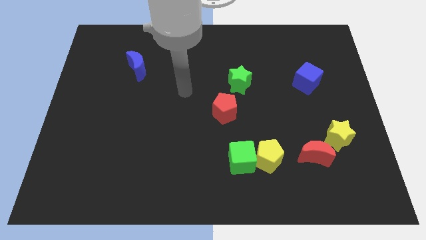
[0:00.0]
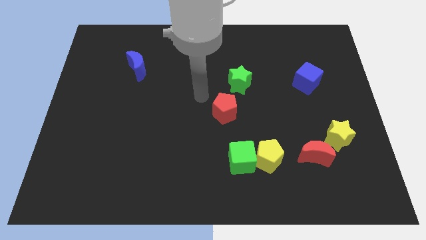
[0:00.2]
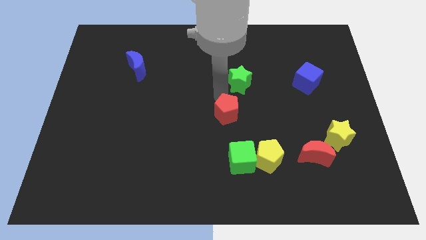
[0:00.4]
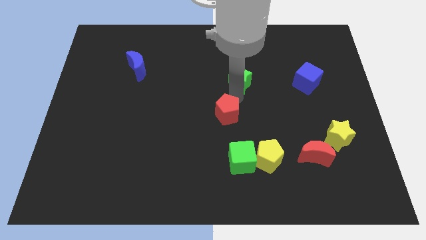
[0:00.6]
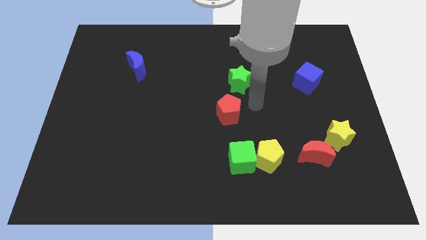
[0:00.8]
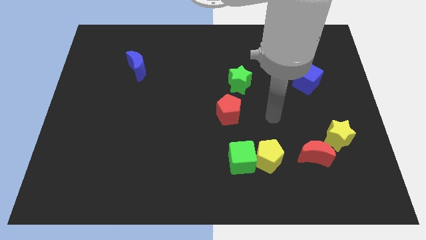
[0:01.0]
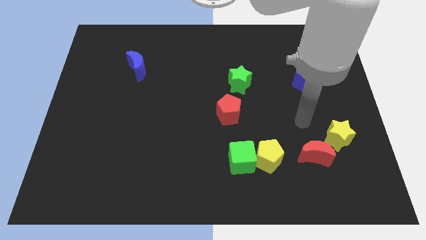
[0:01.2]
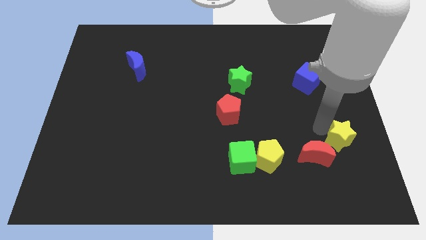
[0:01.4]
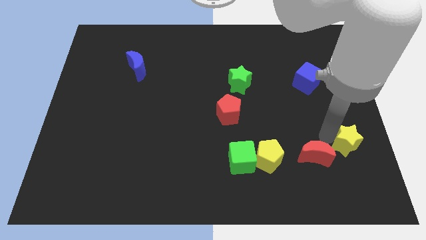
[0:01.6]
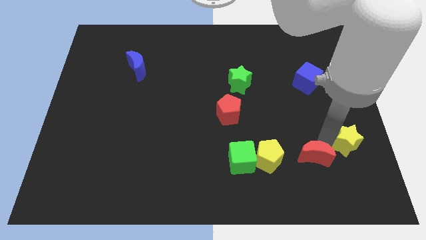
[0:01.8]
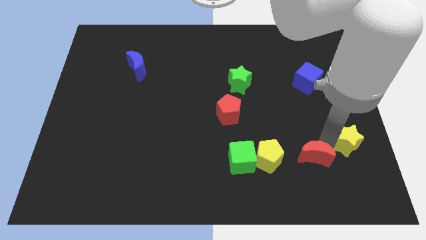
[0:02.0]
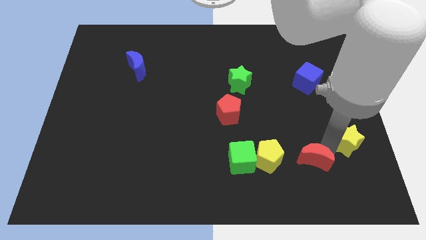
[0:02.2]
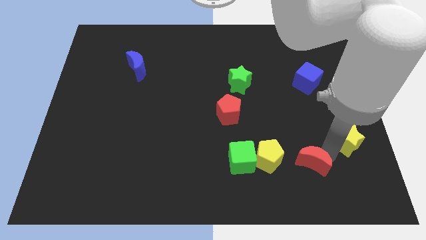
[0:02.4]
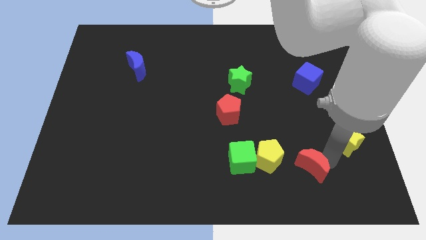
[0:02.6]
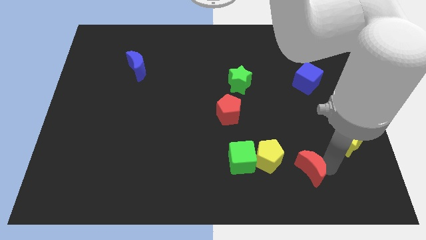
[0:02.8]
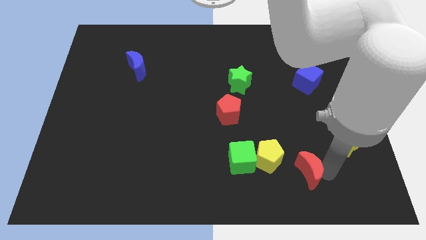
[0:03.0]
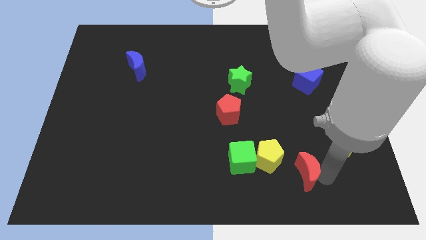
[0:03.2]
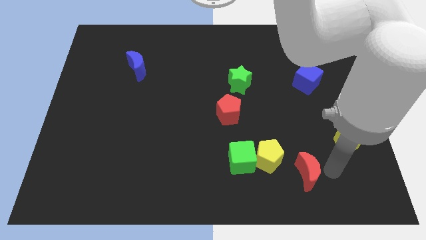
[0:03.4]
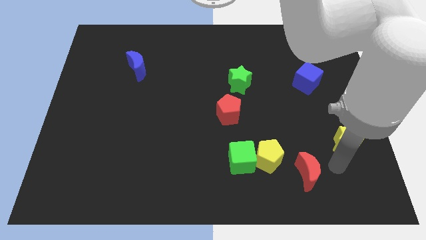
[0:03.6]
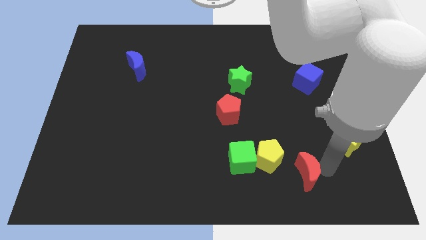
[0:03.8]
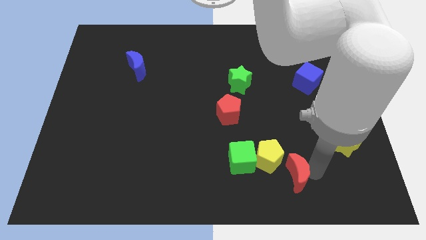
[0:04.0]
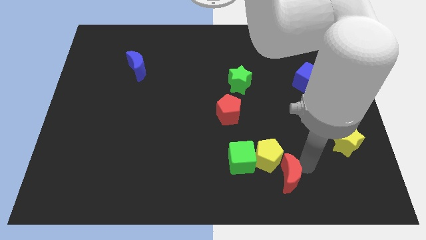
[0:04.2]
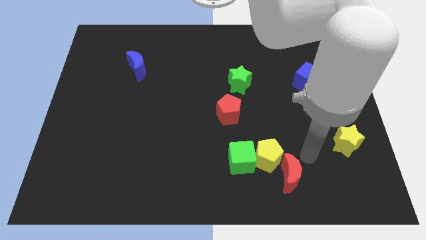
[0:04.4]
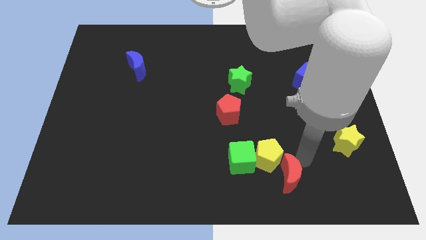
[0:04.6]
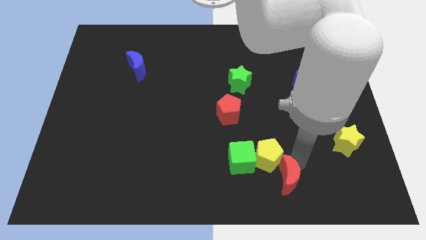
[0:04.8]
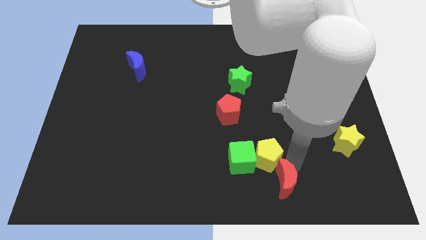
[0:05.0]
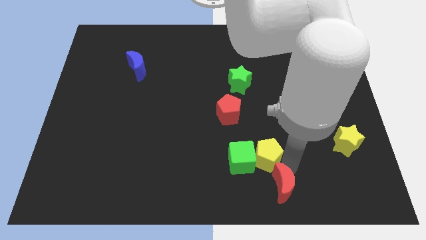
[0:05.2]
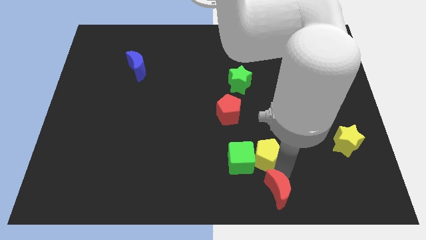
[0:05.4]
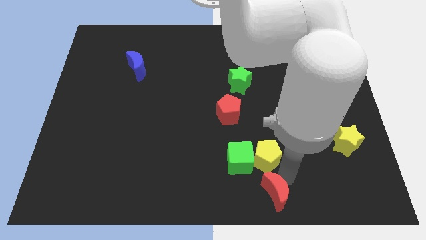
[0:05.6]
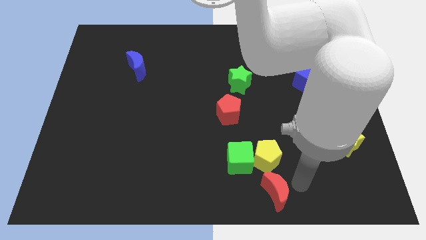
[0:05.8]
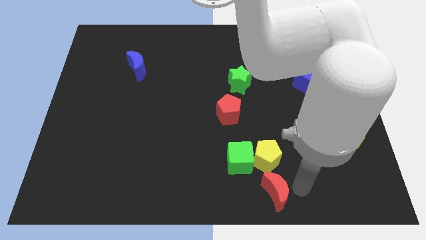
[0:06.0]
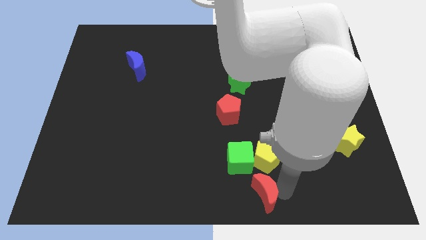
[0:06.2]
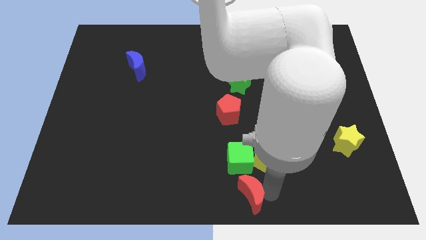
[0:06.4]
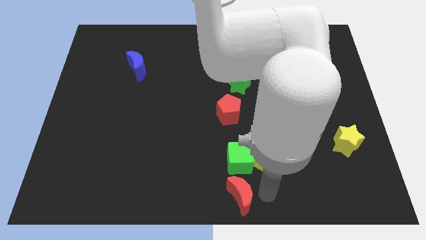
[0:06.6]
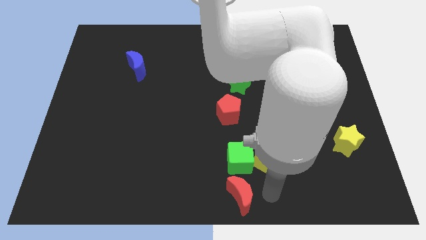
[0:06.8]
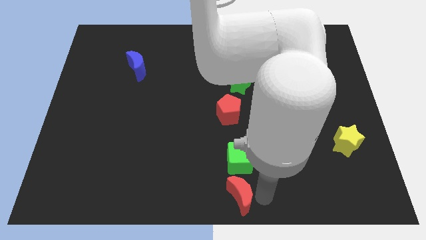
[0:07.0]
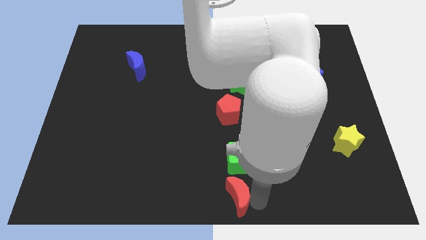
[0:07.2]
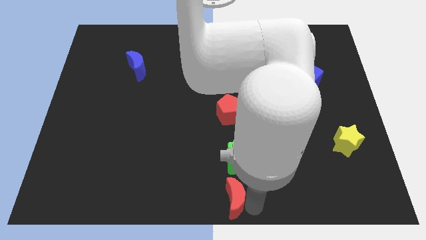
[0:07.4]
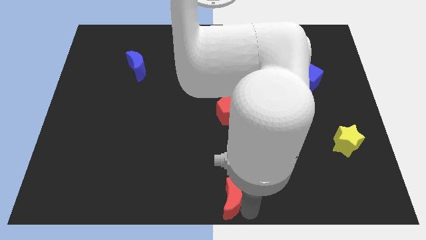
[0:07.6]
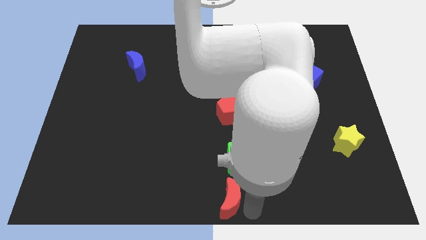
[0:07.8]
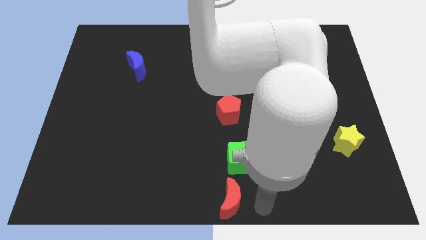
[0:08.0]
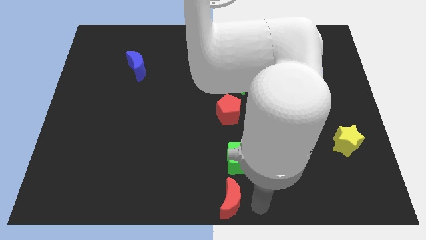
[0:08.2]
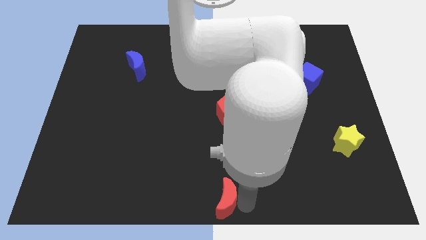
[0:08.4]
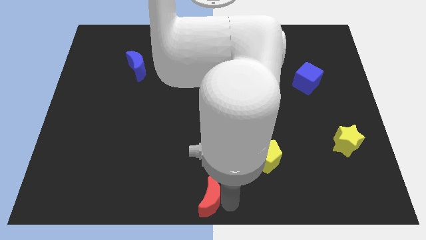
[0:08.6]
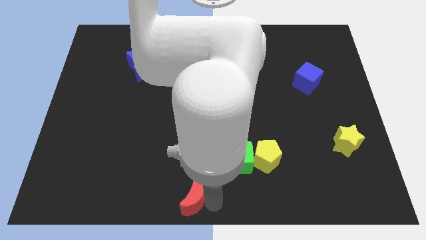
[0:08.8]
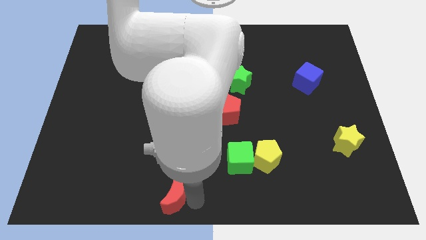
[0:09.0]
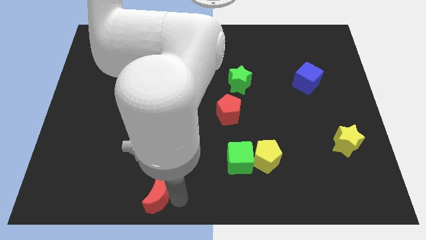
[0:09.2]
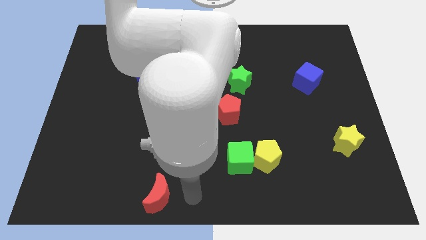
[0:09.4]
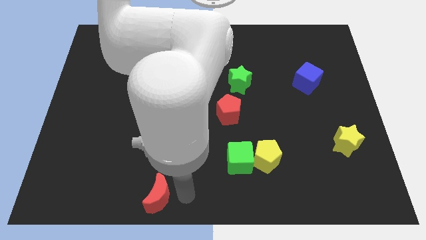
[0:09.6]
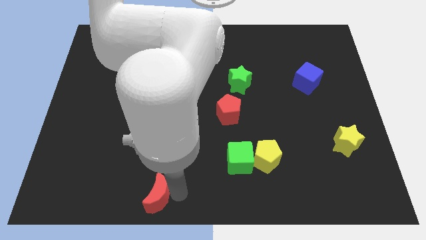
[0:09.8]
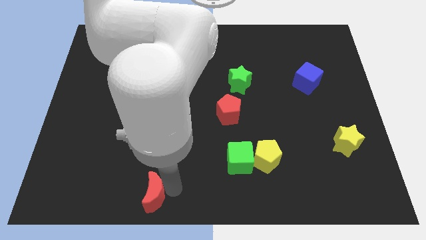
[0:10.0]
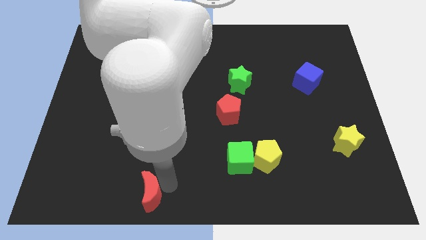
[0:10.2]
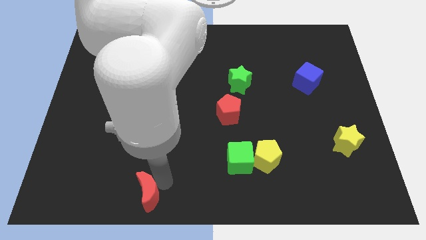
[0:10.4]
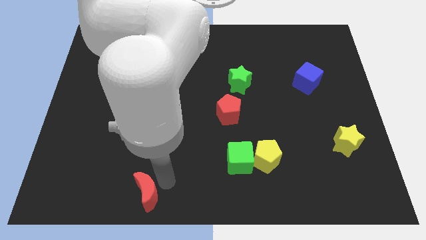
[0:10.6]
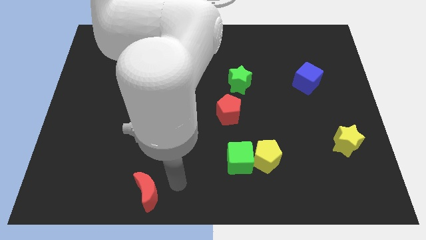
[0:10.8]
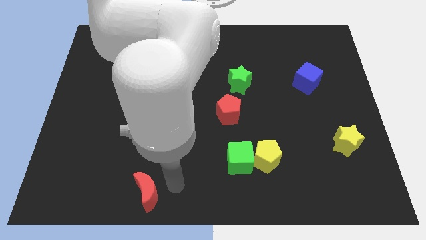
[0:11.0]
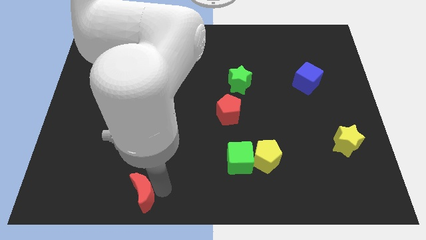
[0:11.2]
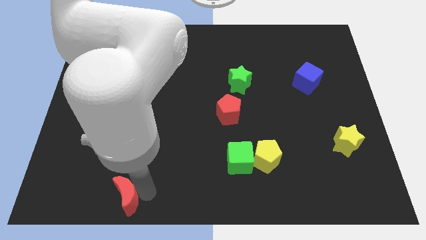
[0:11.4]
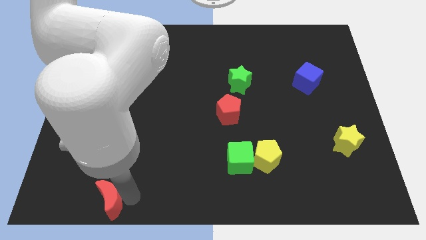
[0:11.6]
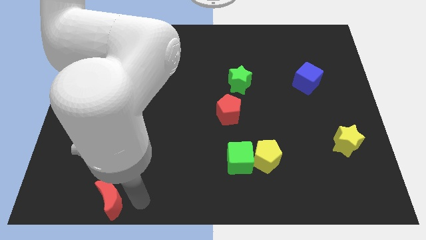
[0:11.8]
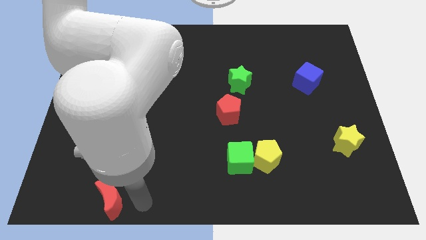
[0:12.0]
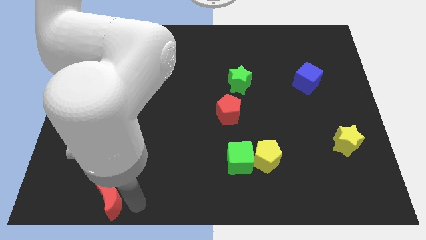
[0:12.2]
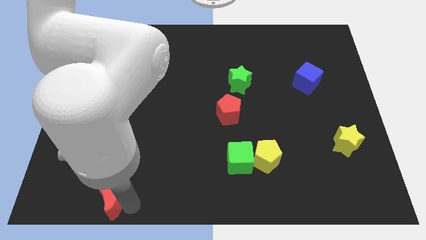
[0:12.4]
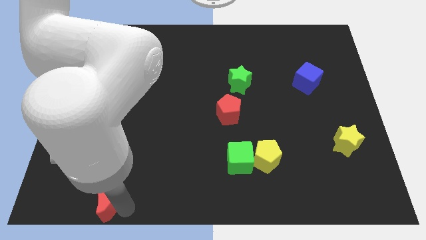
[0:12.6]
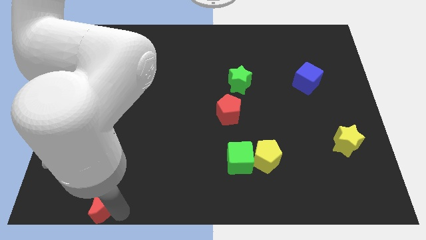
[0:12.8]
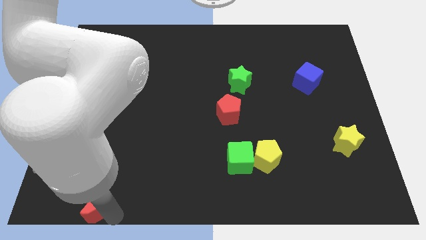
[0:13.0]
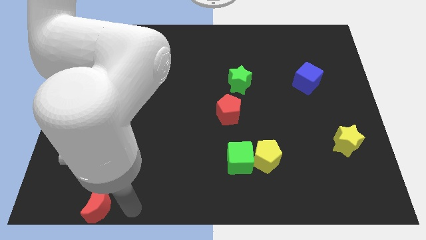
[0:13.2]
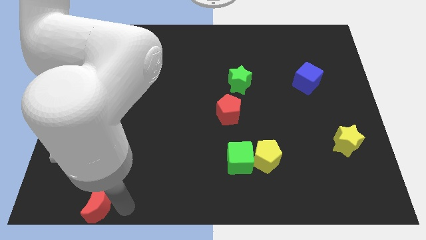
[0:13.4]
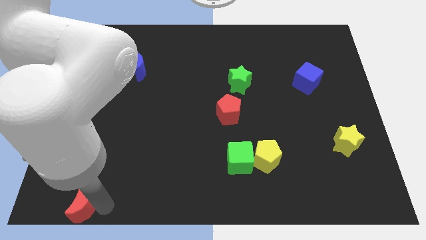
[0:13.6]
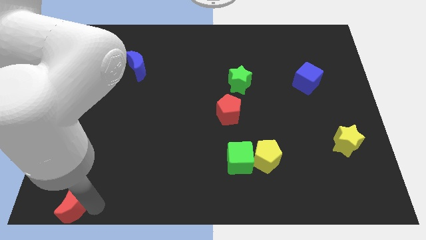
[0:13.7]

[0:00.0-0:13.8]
slide the red moon to the bottom left corner
